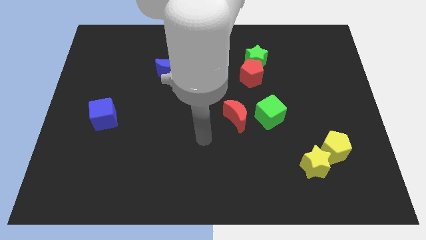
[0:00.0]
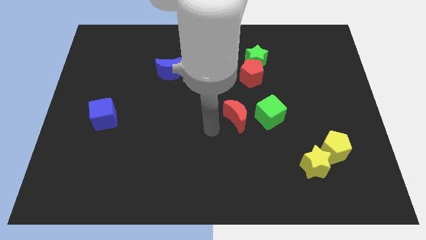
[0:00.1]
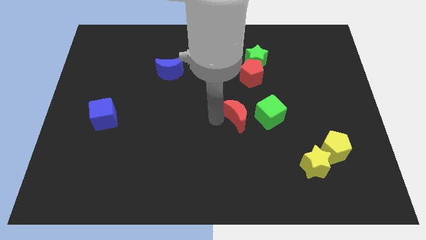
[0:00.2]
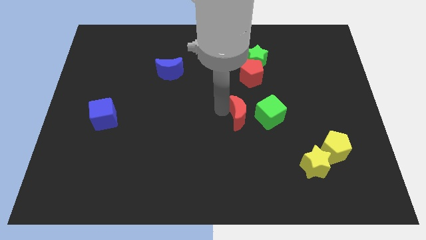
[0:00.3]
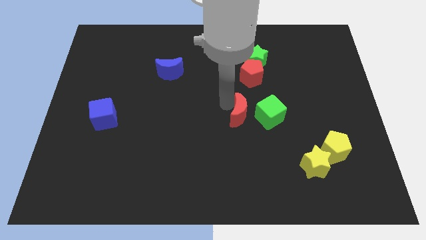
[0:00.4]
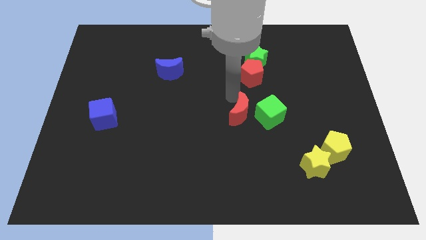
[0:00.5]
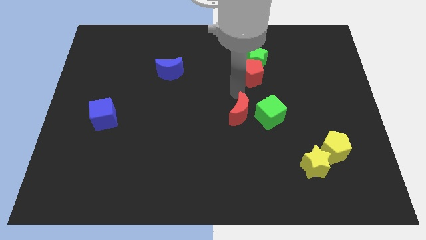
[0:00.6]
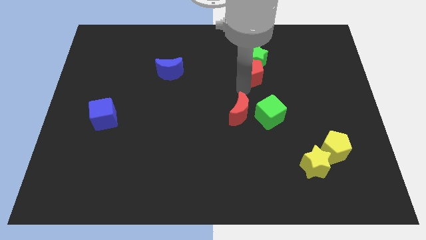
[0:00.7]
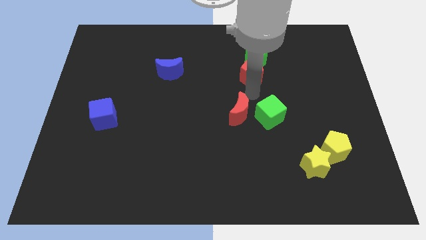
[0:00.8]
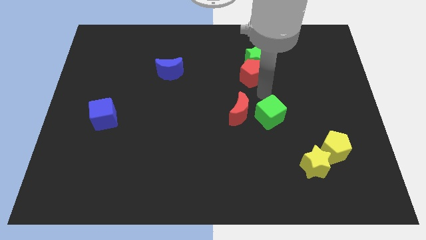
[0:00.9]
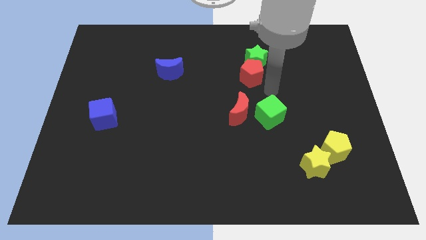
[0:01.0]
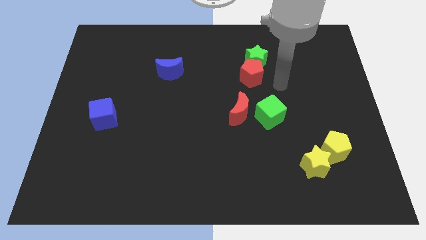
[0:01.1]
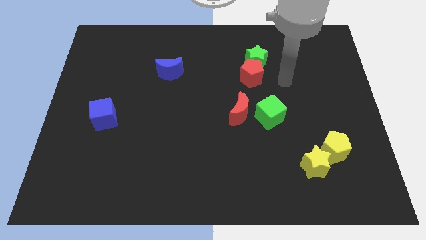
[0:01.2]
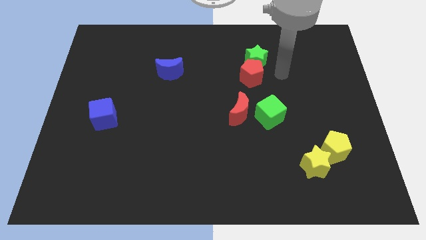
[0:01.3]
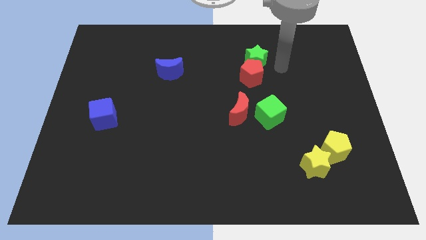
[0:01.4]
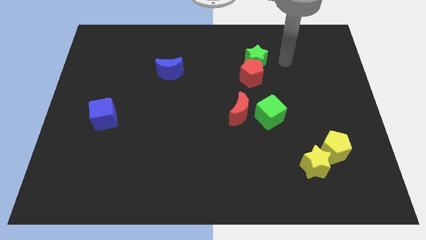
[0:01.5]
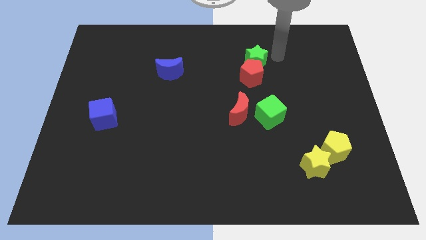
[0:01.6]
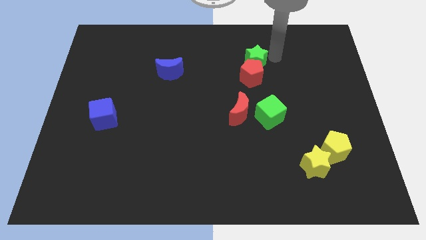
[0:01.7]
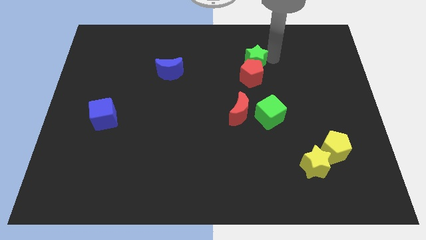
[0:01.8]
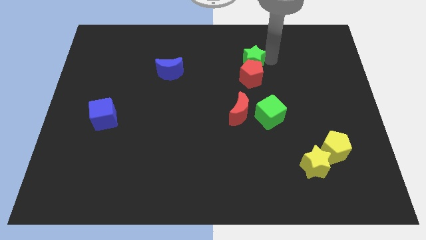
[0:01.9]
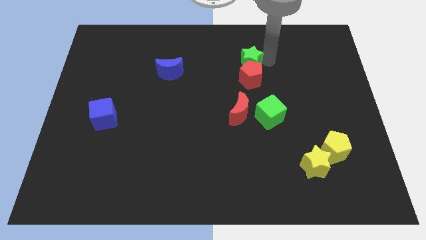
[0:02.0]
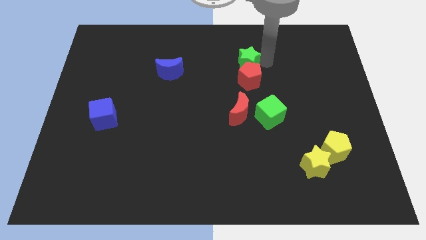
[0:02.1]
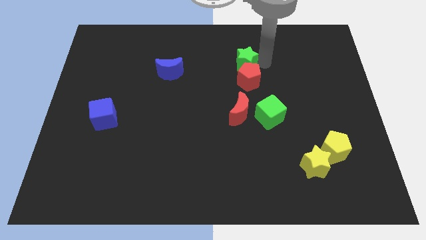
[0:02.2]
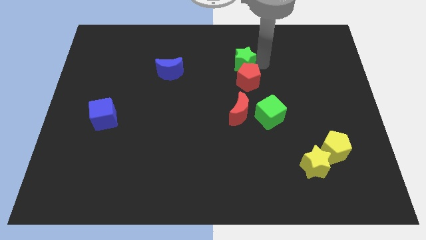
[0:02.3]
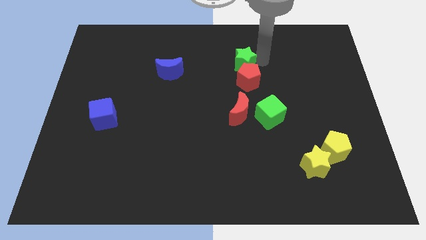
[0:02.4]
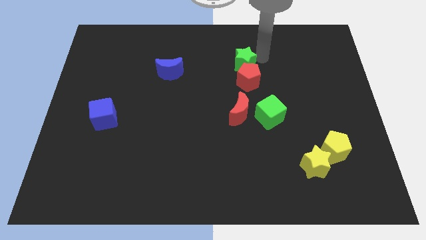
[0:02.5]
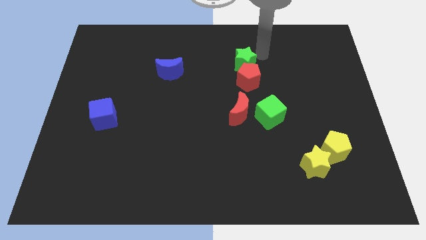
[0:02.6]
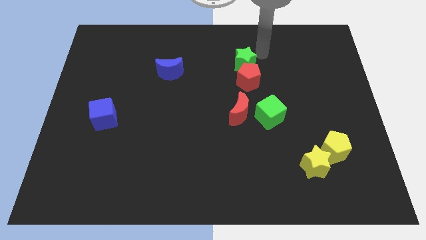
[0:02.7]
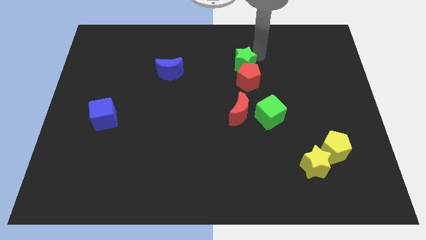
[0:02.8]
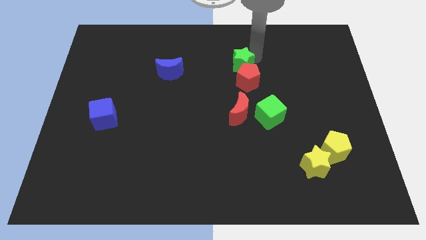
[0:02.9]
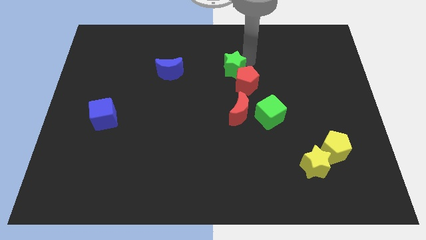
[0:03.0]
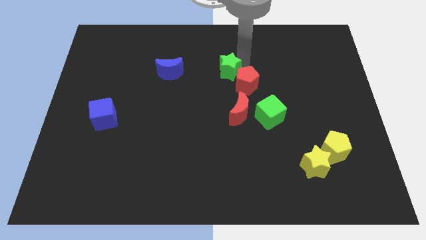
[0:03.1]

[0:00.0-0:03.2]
move the green star down and left a little bit

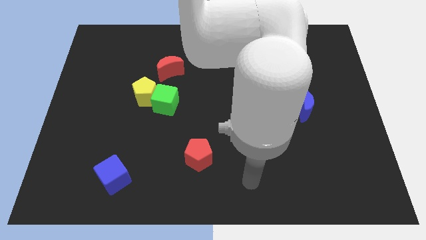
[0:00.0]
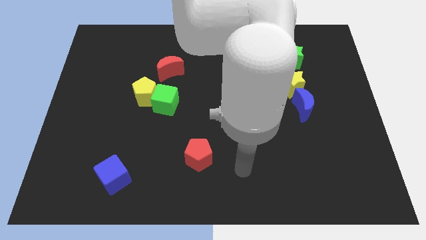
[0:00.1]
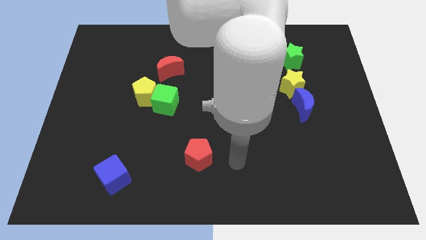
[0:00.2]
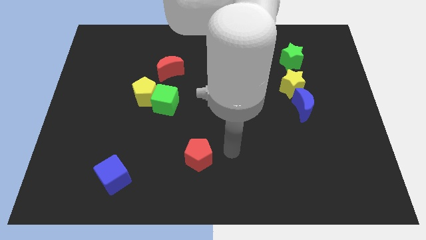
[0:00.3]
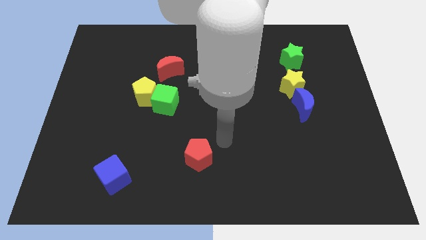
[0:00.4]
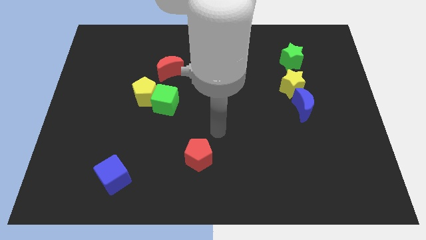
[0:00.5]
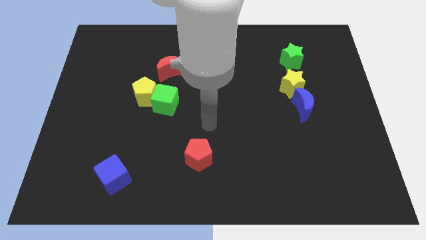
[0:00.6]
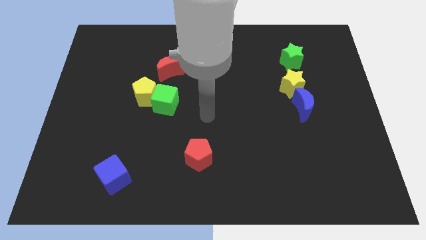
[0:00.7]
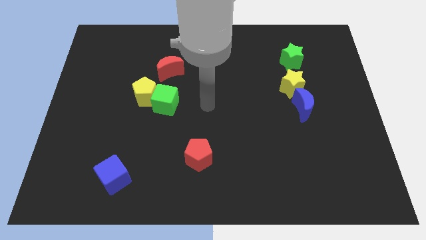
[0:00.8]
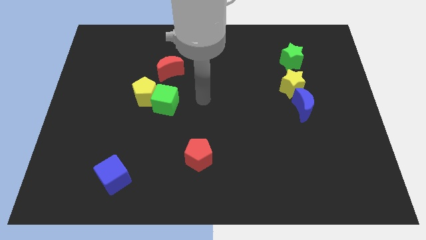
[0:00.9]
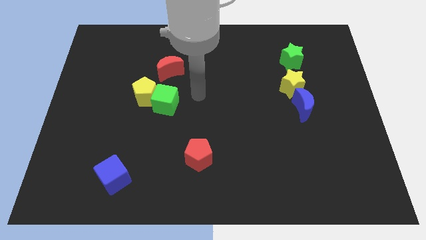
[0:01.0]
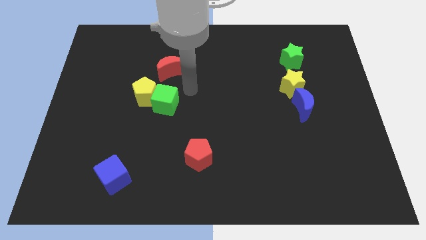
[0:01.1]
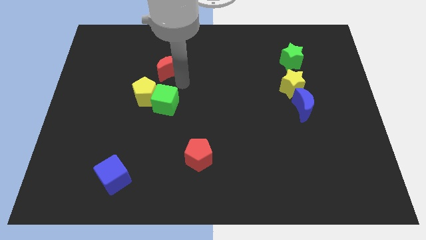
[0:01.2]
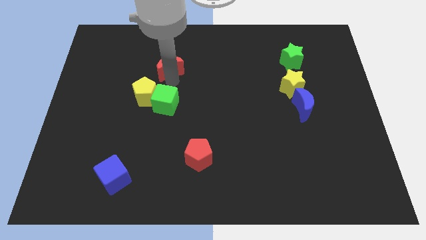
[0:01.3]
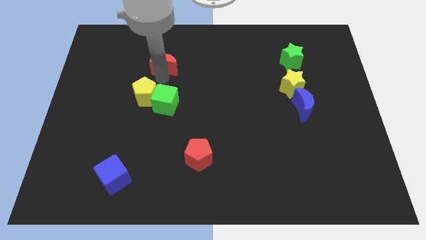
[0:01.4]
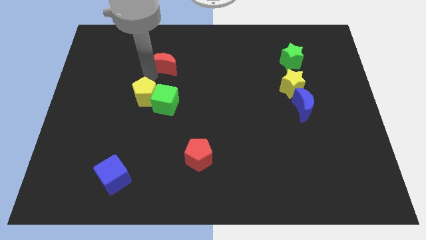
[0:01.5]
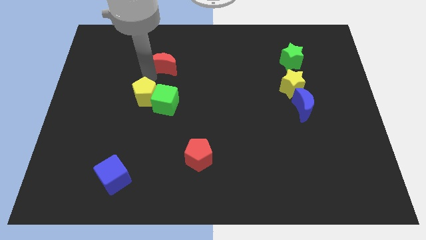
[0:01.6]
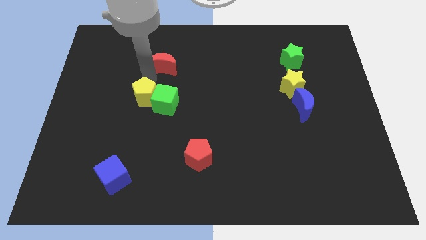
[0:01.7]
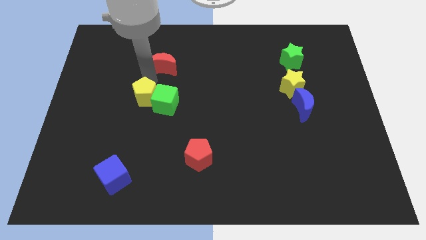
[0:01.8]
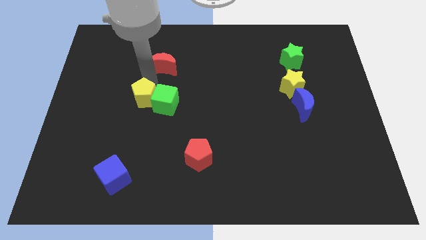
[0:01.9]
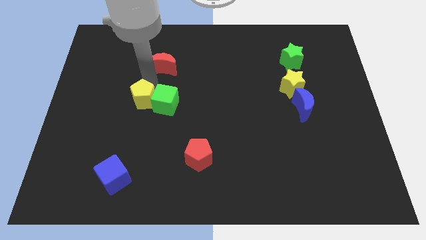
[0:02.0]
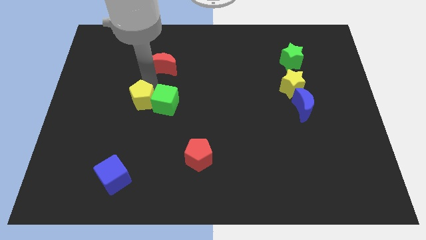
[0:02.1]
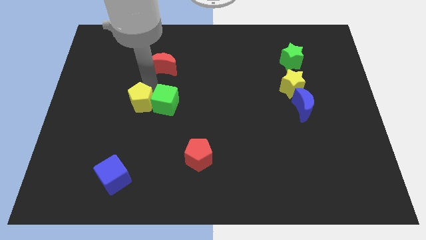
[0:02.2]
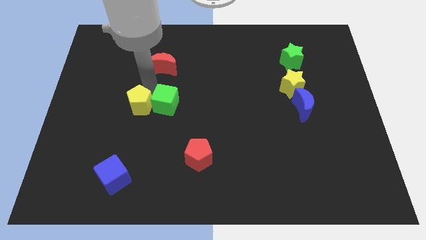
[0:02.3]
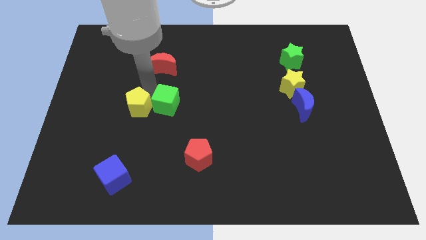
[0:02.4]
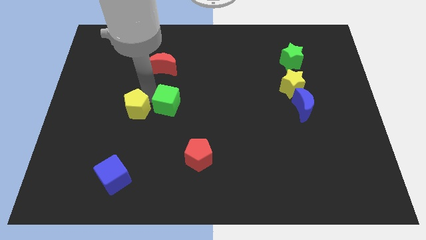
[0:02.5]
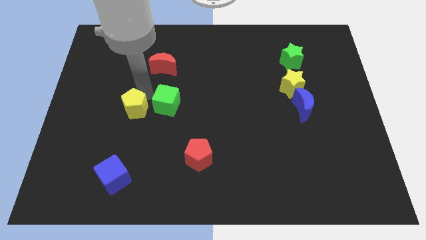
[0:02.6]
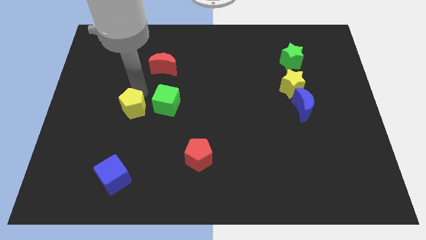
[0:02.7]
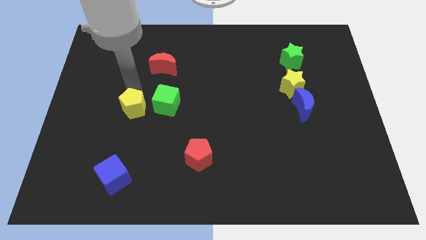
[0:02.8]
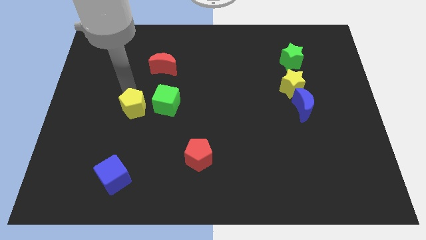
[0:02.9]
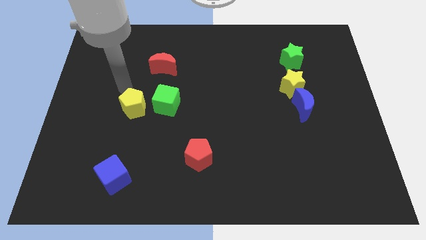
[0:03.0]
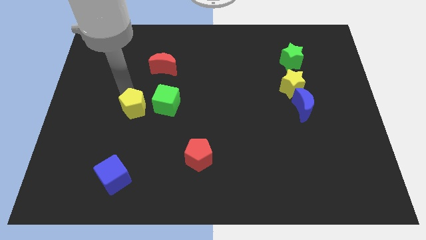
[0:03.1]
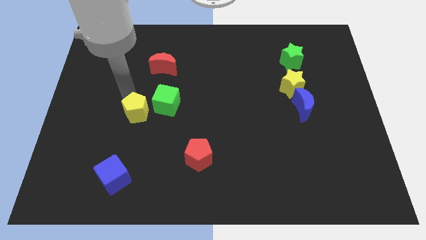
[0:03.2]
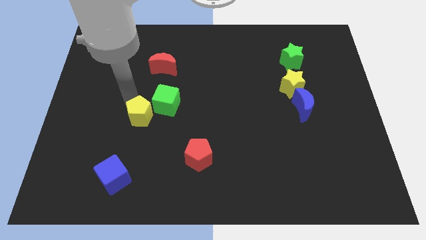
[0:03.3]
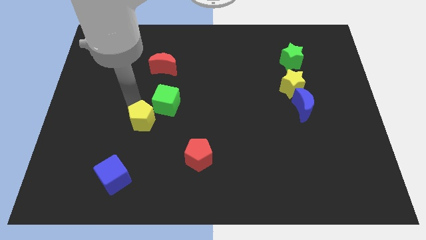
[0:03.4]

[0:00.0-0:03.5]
slightly push the yellow pentagon down

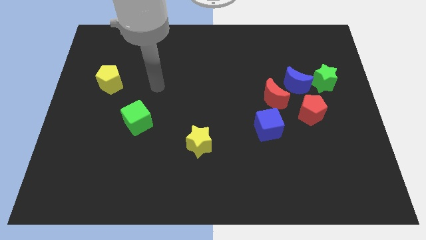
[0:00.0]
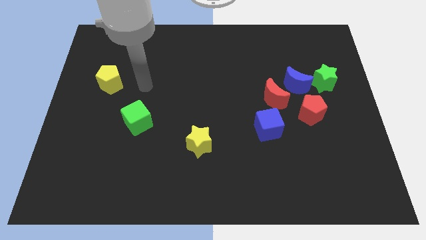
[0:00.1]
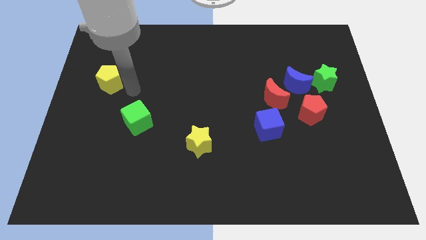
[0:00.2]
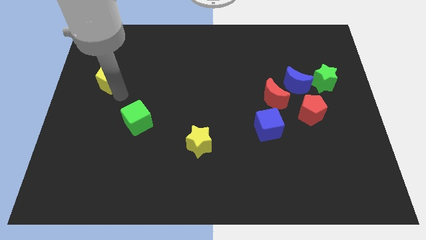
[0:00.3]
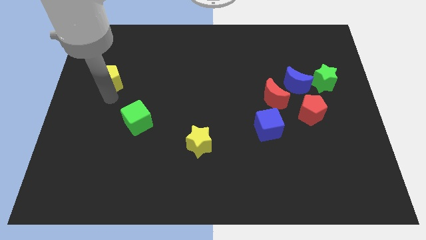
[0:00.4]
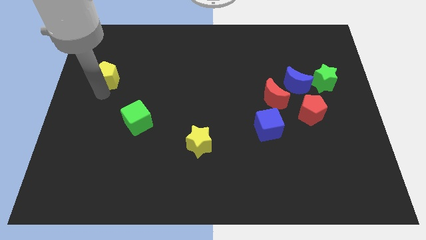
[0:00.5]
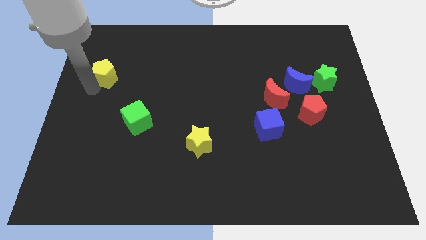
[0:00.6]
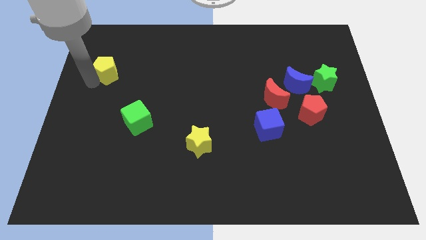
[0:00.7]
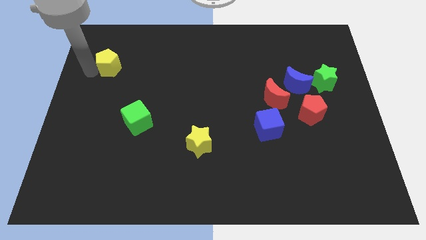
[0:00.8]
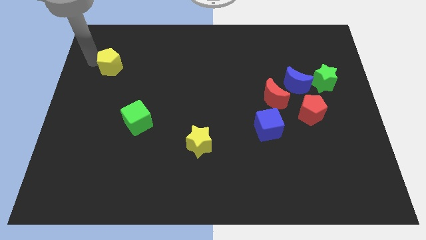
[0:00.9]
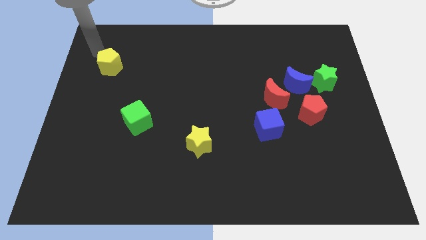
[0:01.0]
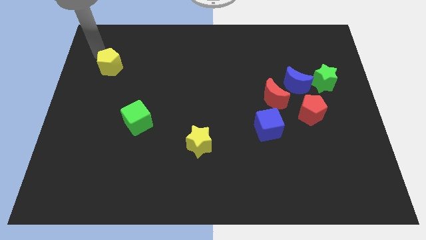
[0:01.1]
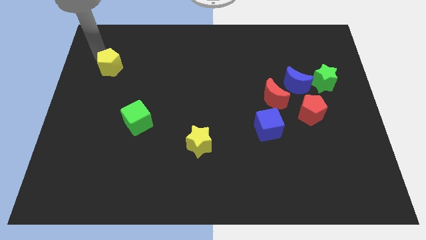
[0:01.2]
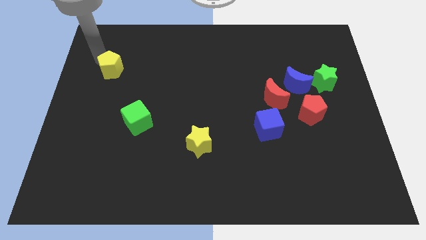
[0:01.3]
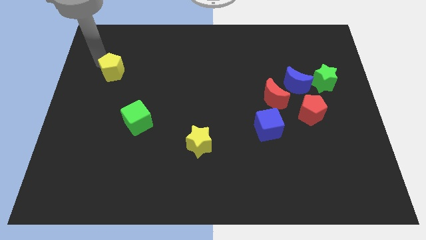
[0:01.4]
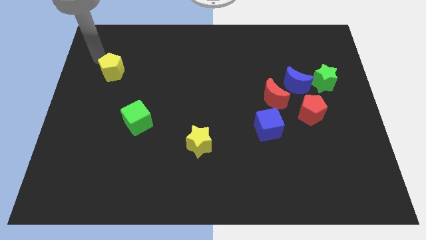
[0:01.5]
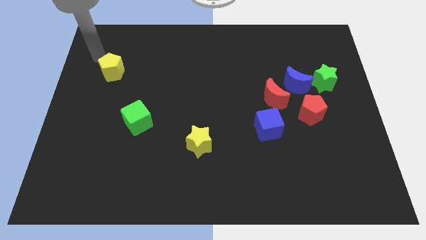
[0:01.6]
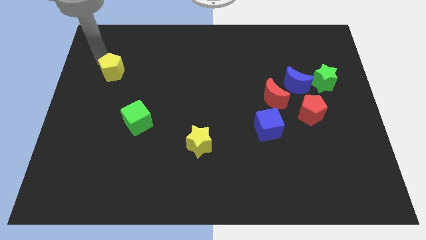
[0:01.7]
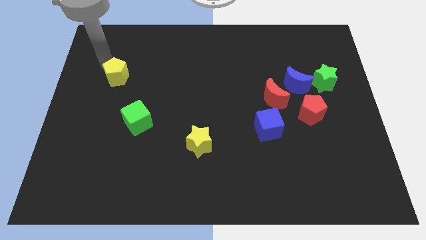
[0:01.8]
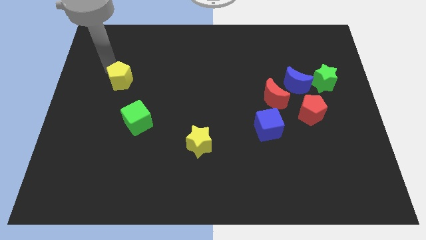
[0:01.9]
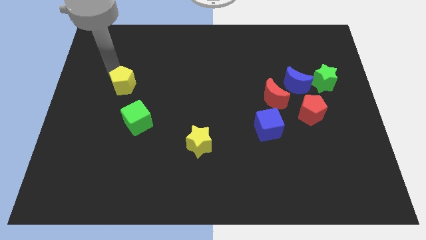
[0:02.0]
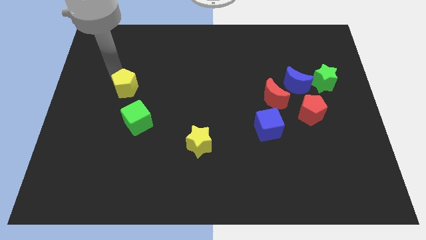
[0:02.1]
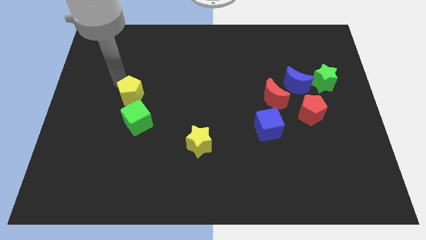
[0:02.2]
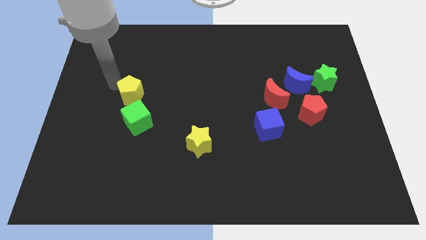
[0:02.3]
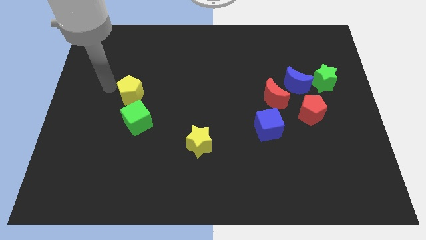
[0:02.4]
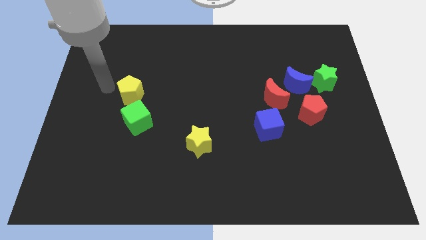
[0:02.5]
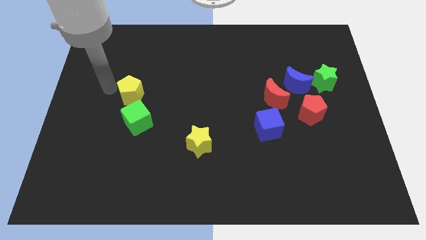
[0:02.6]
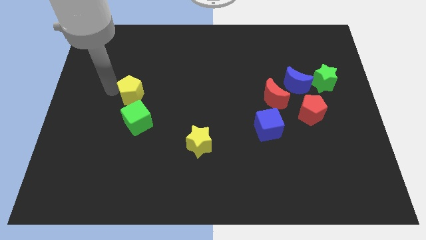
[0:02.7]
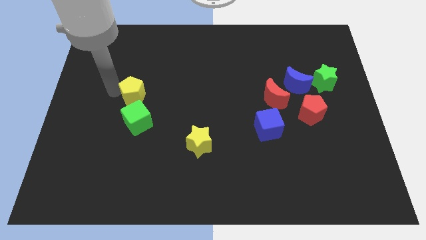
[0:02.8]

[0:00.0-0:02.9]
move the yellow pentagon down and to the right a little bit
